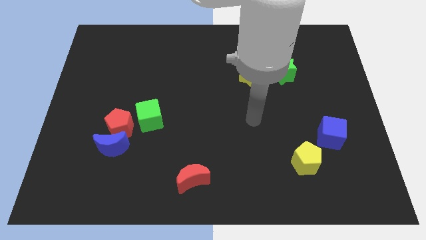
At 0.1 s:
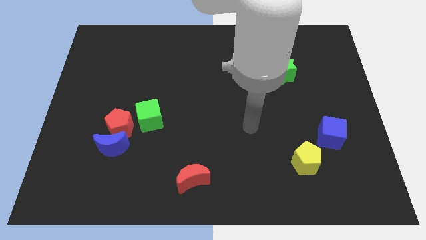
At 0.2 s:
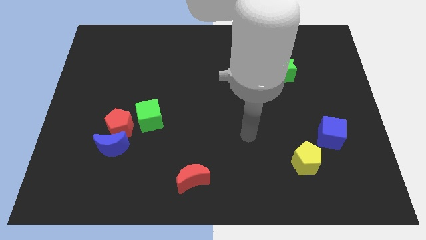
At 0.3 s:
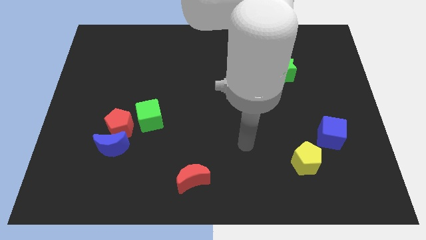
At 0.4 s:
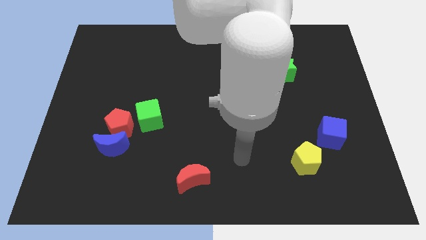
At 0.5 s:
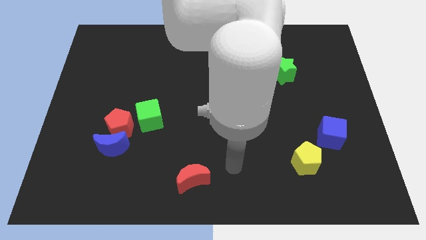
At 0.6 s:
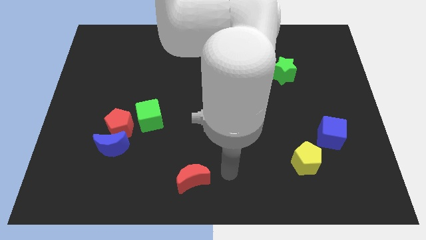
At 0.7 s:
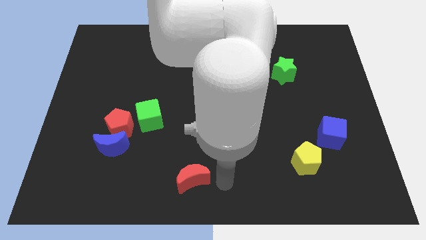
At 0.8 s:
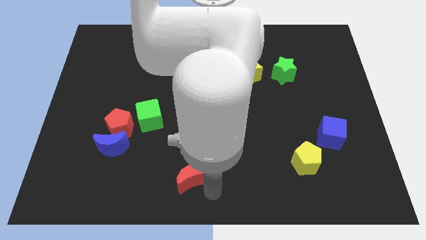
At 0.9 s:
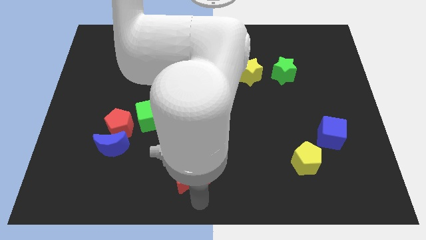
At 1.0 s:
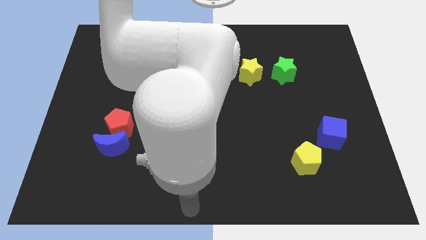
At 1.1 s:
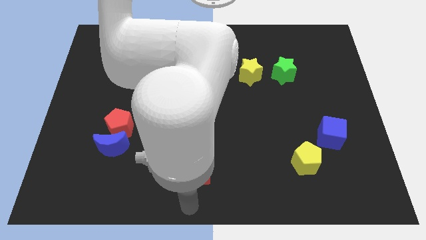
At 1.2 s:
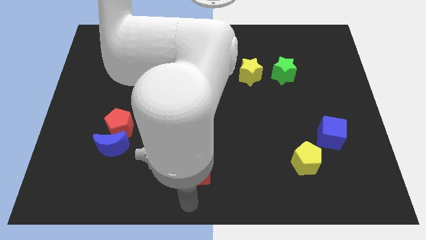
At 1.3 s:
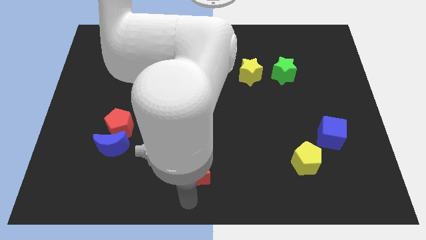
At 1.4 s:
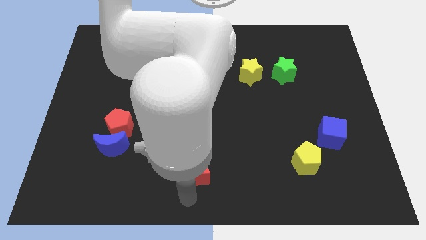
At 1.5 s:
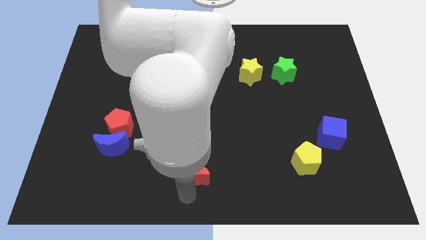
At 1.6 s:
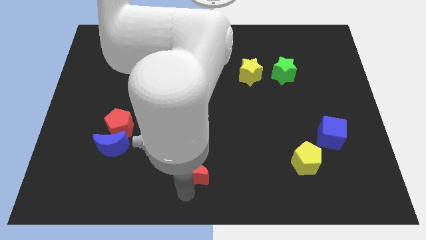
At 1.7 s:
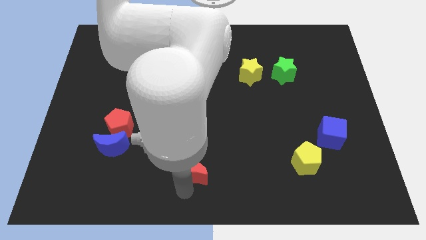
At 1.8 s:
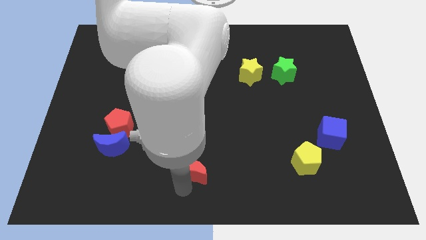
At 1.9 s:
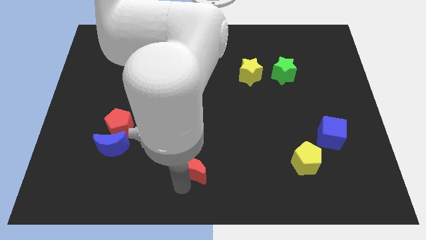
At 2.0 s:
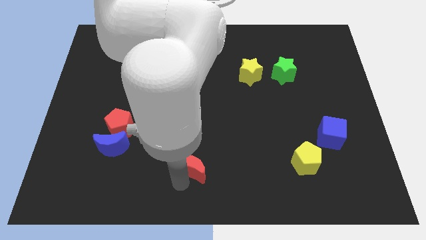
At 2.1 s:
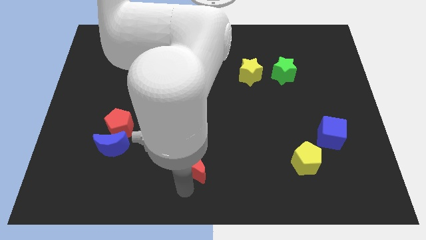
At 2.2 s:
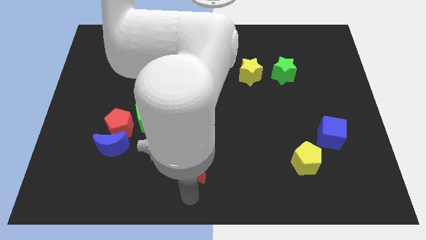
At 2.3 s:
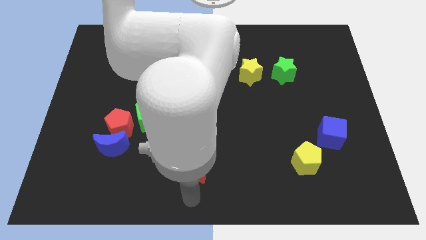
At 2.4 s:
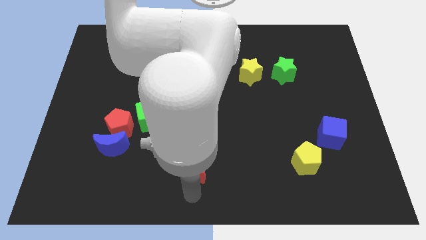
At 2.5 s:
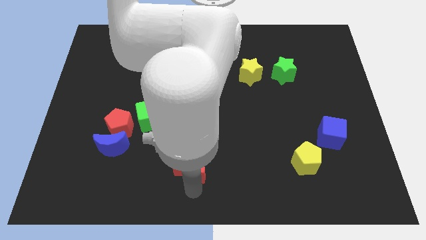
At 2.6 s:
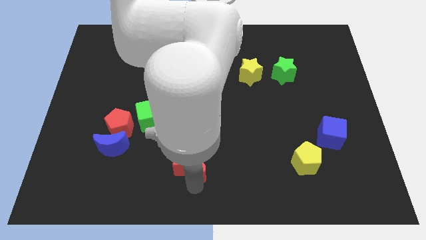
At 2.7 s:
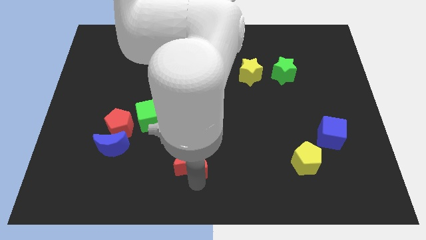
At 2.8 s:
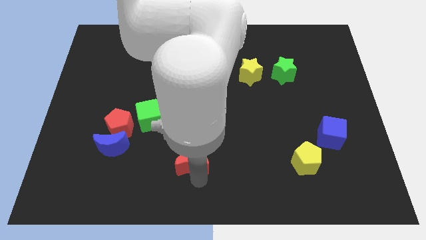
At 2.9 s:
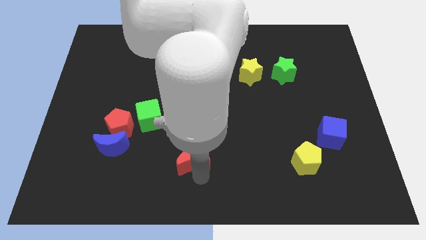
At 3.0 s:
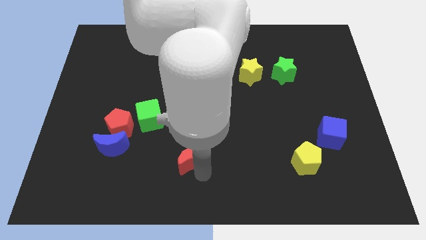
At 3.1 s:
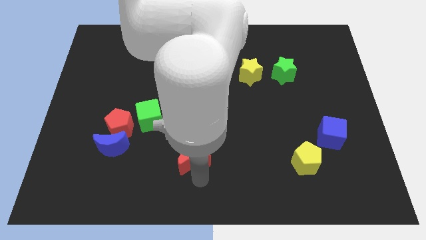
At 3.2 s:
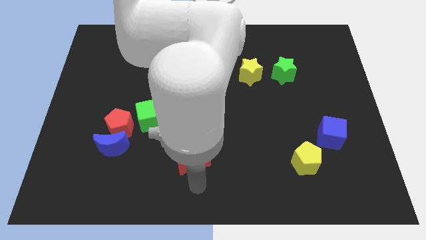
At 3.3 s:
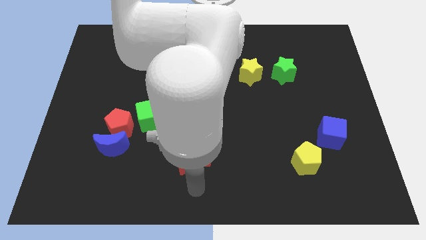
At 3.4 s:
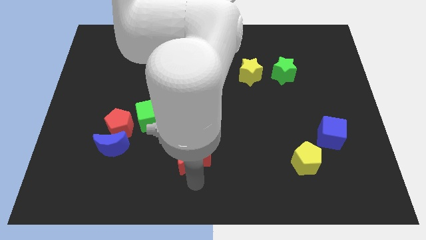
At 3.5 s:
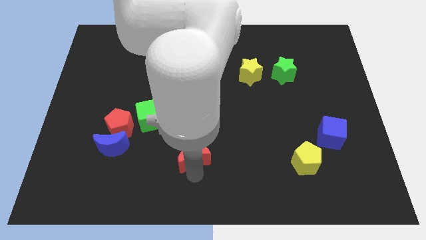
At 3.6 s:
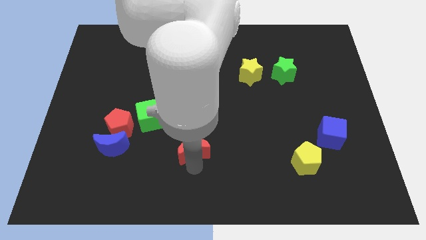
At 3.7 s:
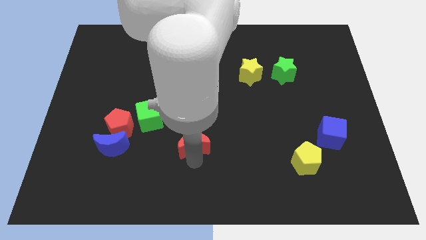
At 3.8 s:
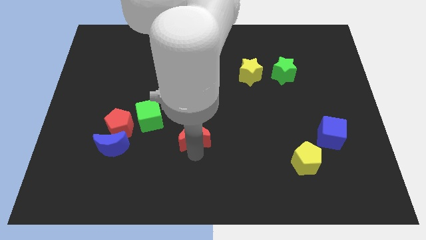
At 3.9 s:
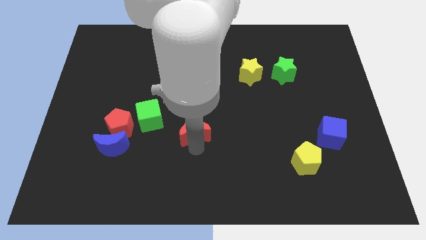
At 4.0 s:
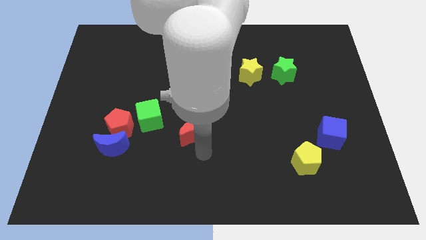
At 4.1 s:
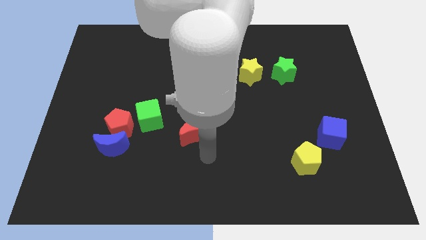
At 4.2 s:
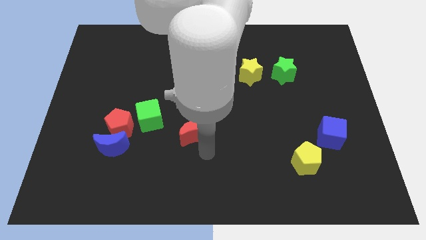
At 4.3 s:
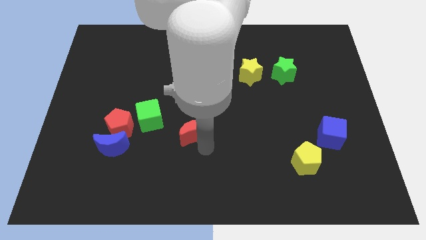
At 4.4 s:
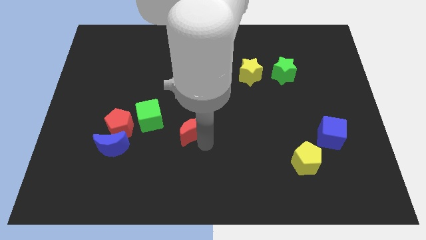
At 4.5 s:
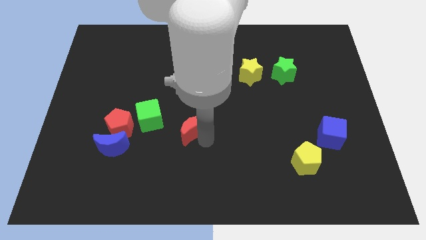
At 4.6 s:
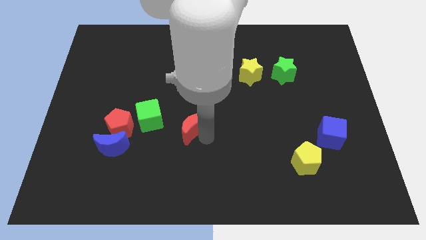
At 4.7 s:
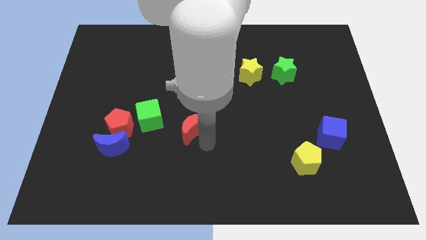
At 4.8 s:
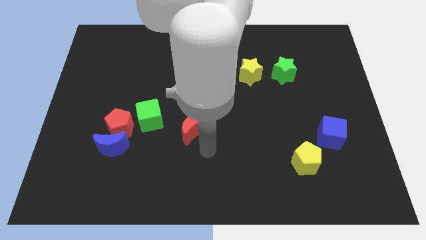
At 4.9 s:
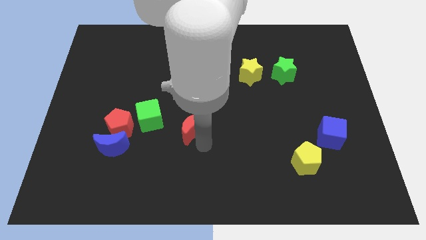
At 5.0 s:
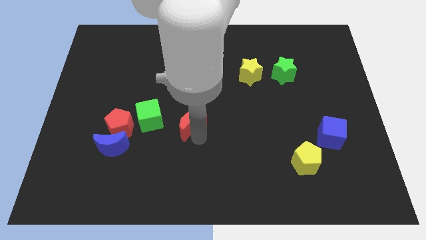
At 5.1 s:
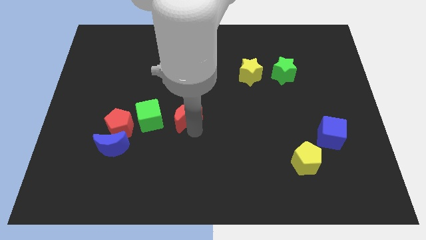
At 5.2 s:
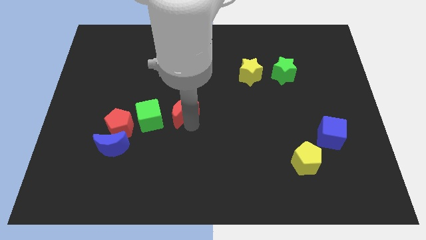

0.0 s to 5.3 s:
put the red moon to the top right side of the green cube

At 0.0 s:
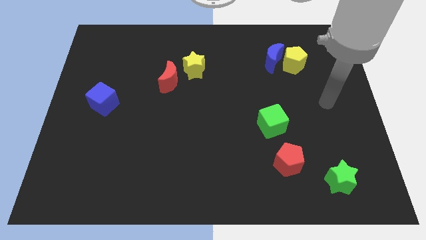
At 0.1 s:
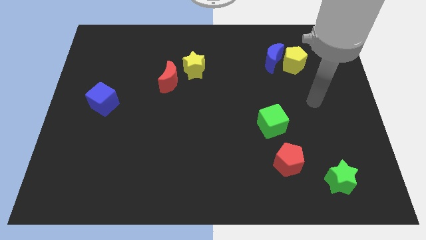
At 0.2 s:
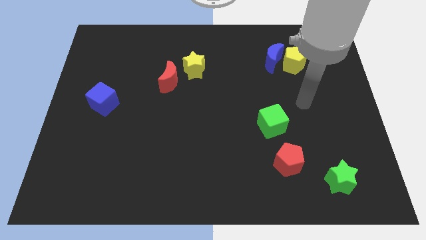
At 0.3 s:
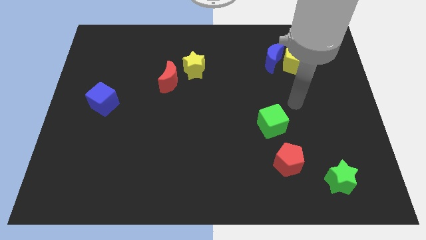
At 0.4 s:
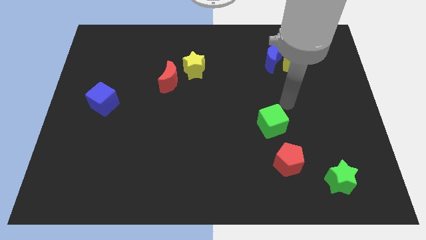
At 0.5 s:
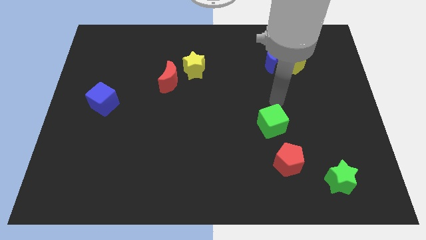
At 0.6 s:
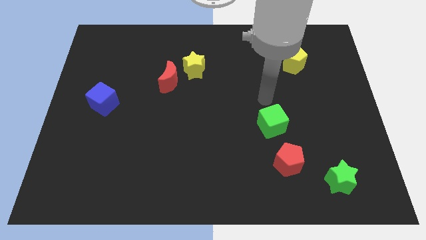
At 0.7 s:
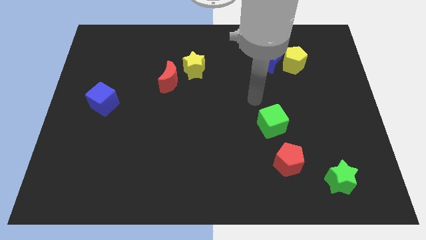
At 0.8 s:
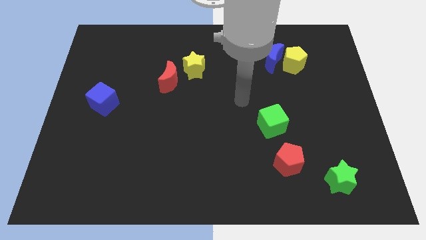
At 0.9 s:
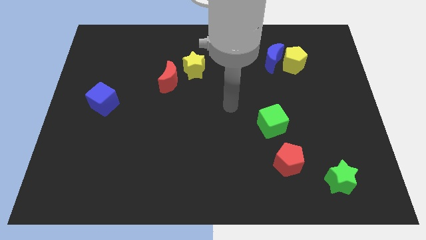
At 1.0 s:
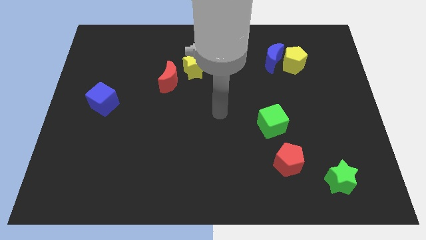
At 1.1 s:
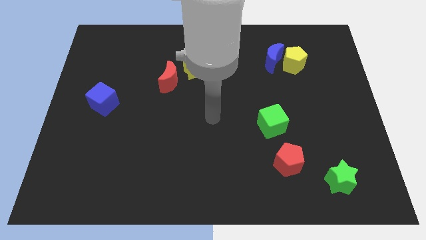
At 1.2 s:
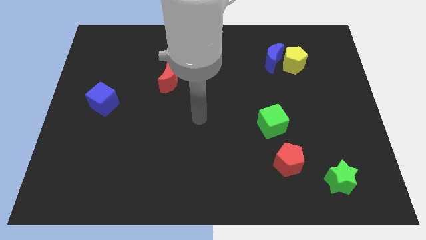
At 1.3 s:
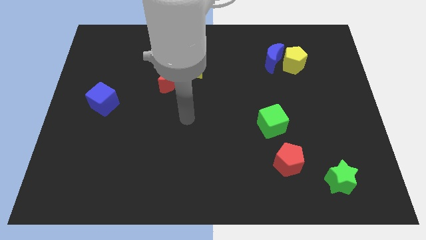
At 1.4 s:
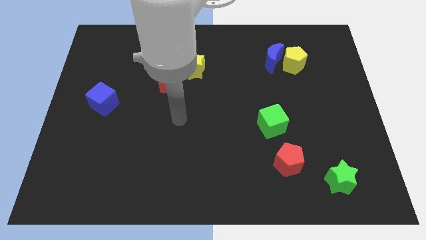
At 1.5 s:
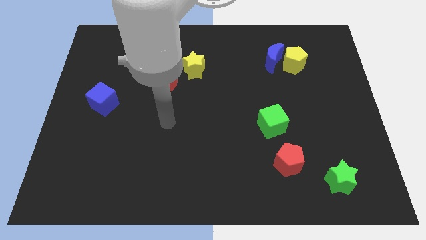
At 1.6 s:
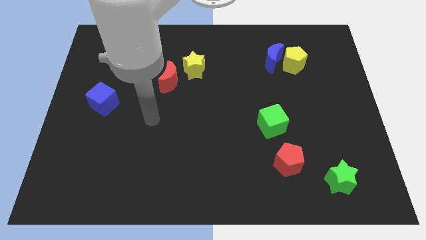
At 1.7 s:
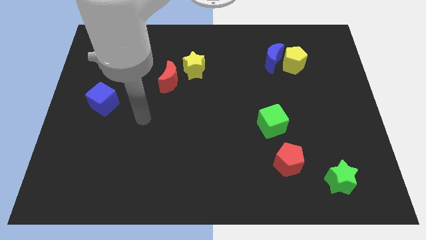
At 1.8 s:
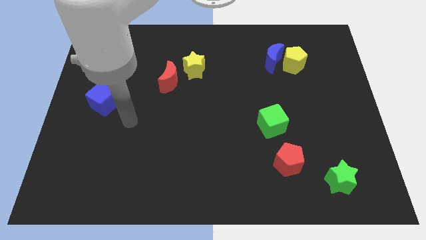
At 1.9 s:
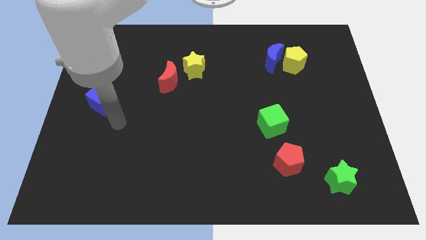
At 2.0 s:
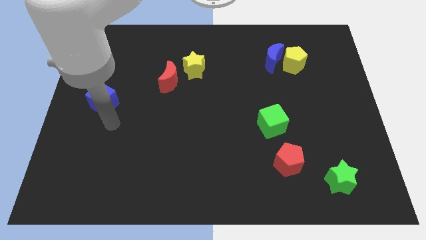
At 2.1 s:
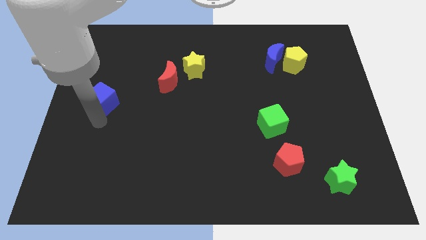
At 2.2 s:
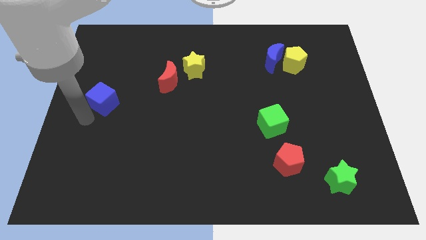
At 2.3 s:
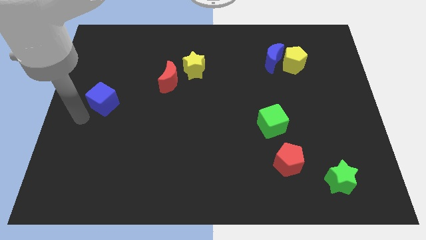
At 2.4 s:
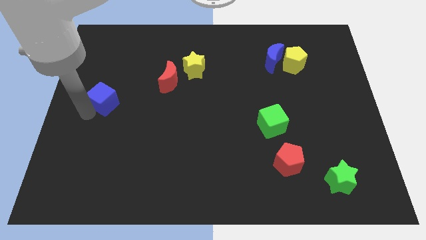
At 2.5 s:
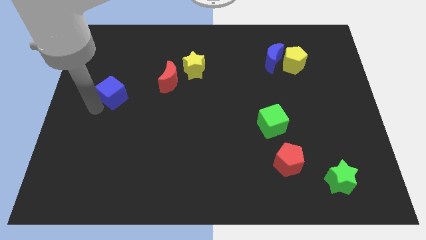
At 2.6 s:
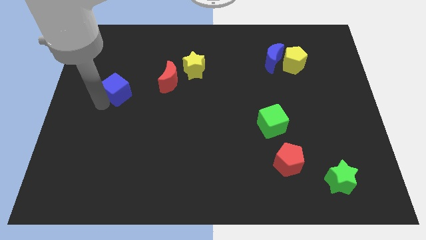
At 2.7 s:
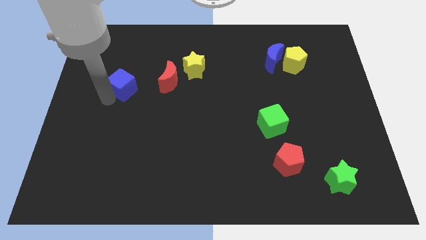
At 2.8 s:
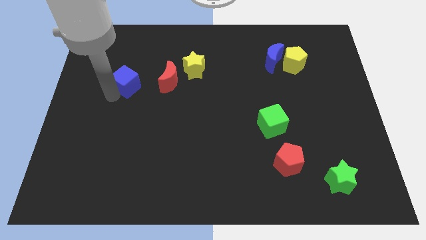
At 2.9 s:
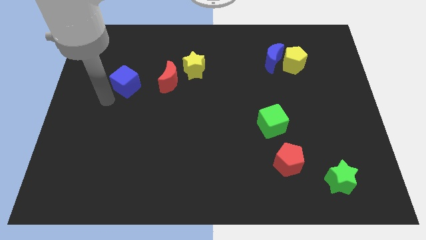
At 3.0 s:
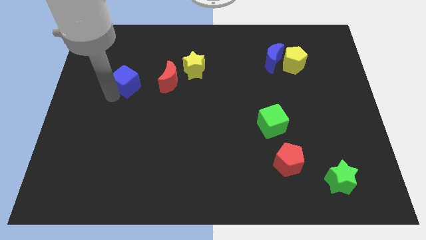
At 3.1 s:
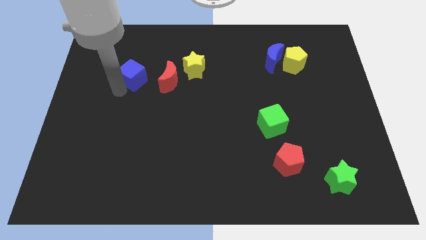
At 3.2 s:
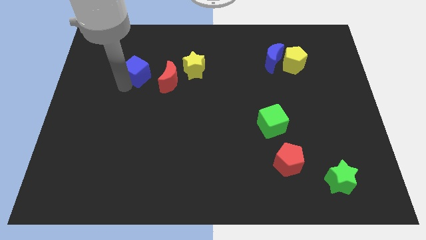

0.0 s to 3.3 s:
put the blue cube to the top left side of the red moon
